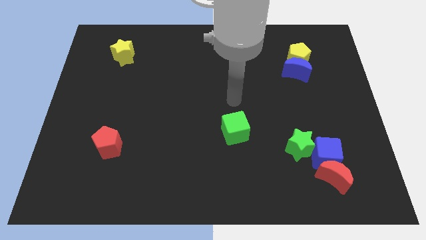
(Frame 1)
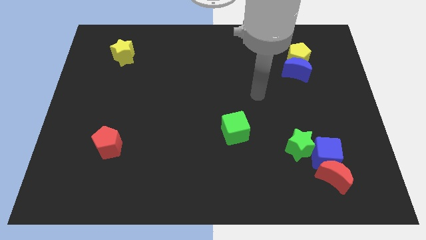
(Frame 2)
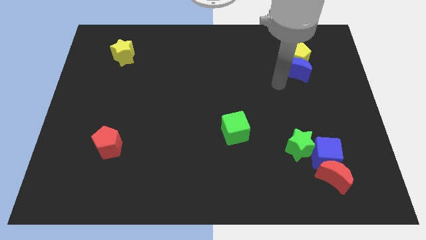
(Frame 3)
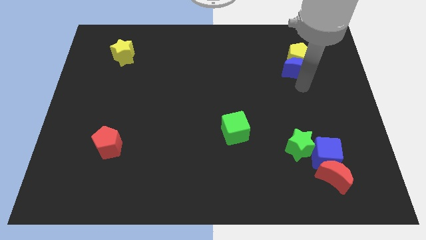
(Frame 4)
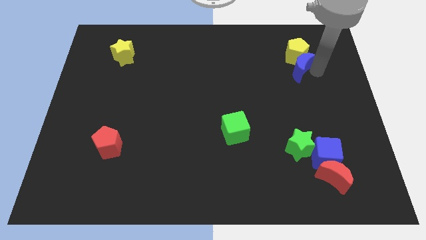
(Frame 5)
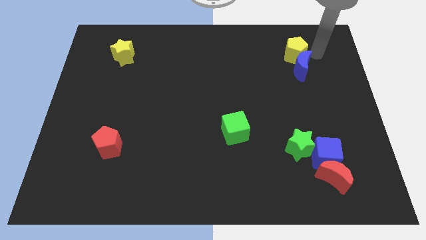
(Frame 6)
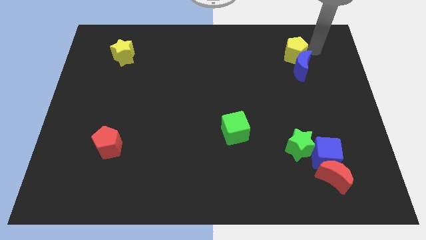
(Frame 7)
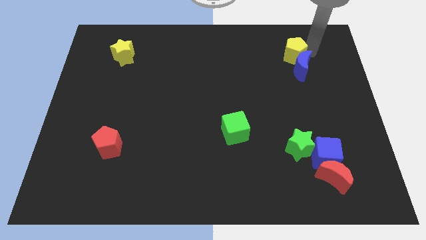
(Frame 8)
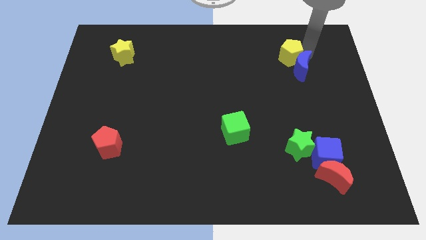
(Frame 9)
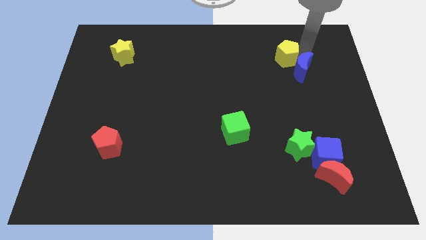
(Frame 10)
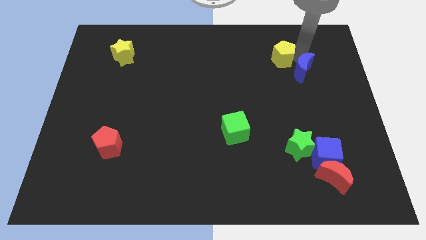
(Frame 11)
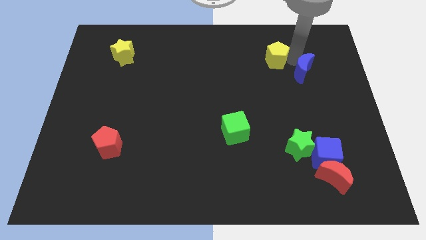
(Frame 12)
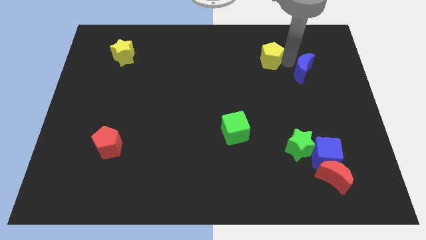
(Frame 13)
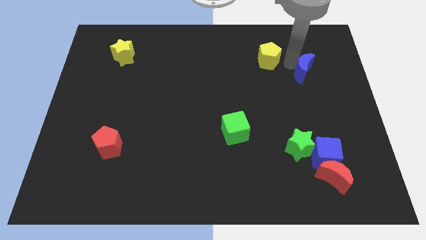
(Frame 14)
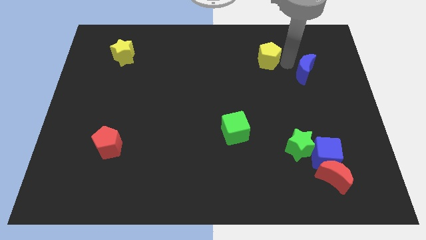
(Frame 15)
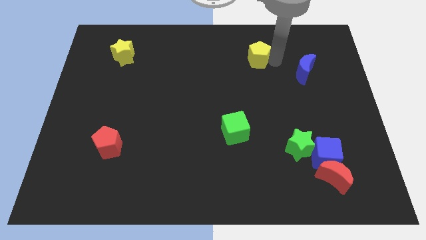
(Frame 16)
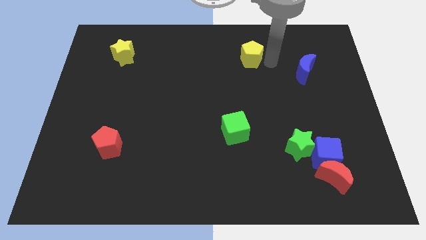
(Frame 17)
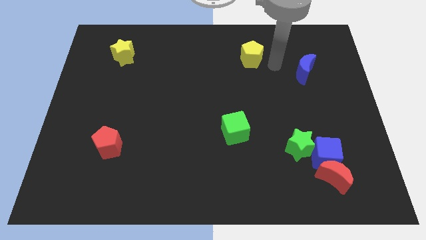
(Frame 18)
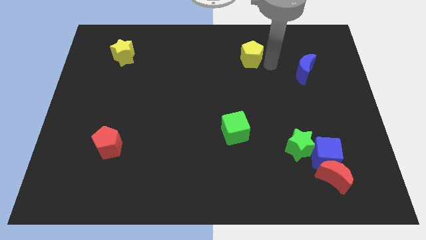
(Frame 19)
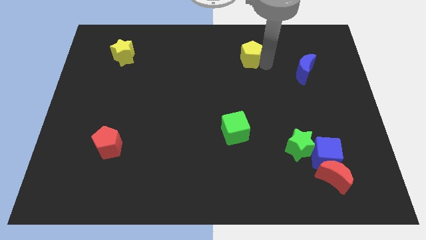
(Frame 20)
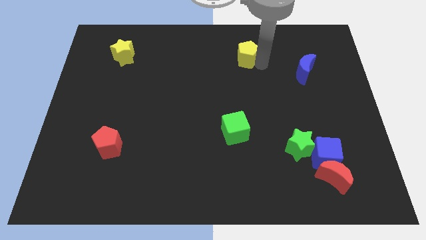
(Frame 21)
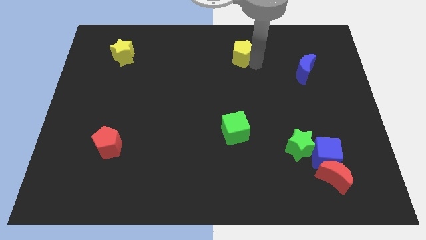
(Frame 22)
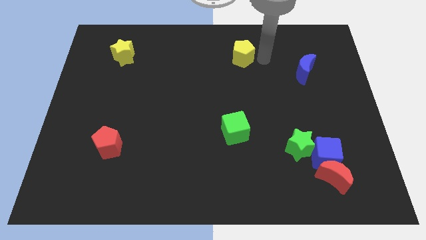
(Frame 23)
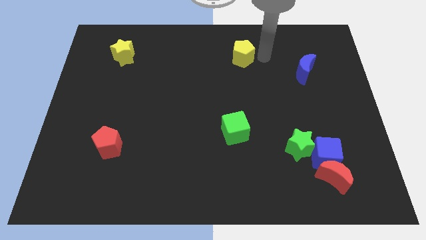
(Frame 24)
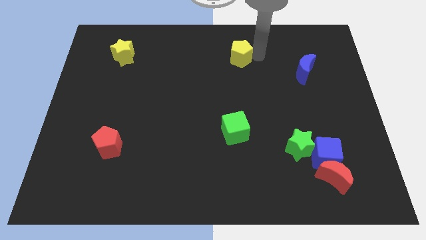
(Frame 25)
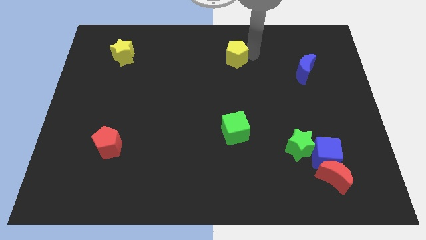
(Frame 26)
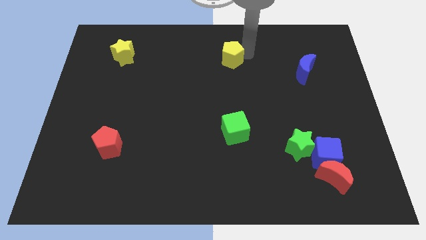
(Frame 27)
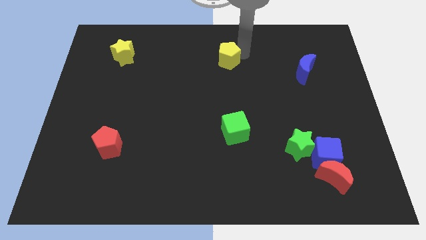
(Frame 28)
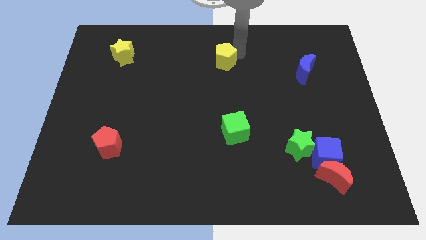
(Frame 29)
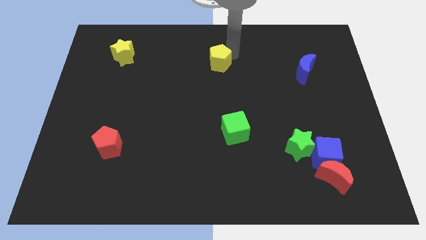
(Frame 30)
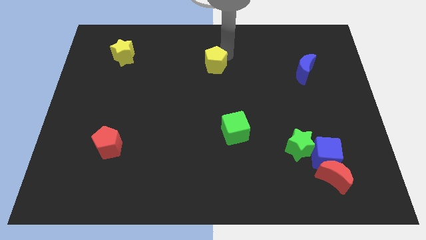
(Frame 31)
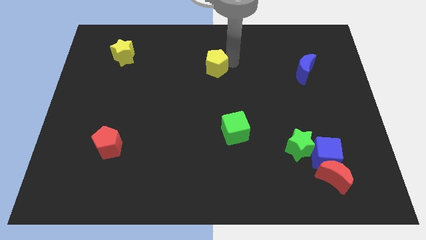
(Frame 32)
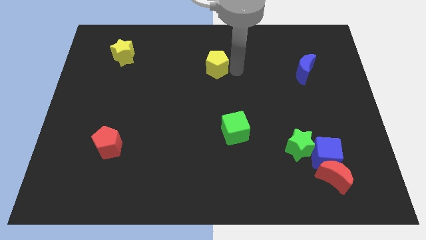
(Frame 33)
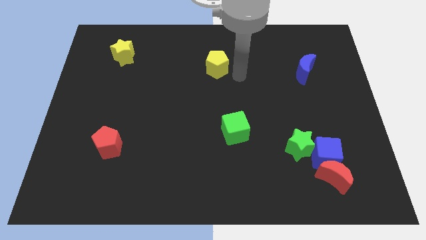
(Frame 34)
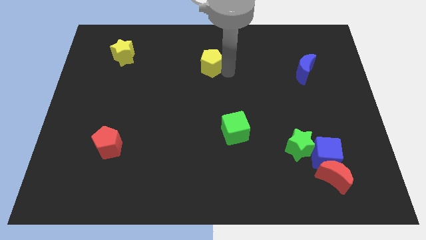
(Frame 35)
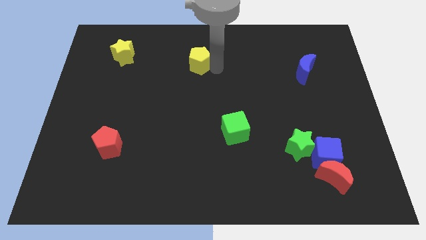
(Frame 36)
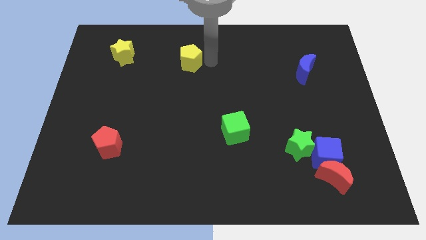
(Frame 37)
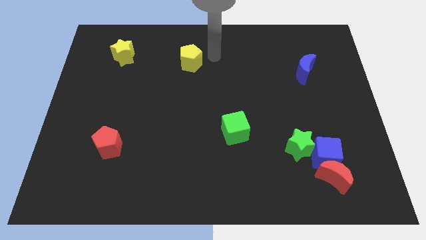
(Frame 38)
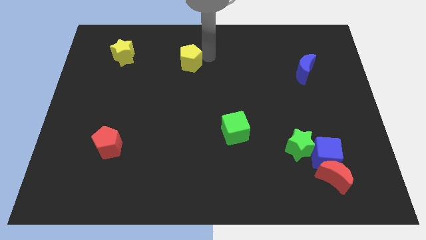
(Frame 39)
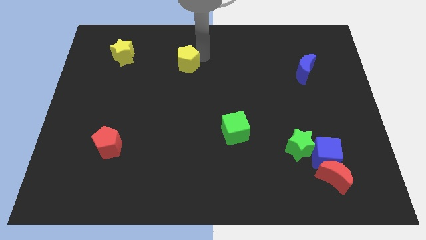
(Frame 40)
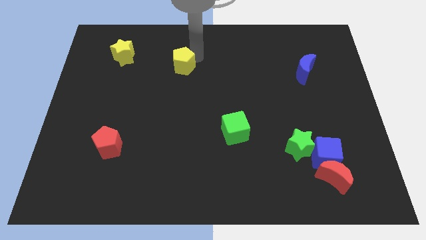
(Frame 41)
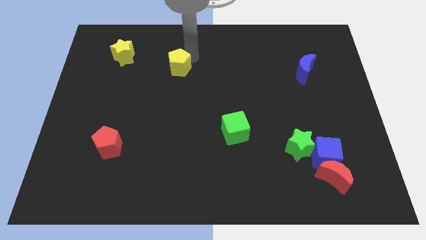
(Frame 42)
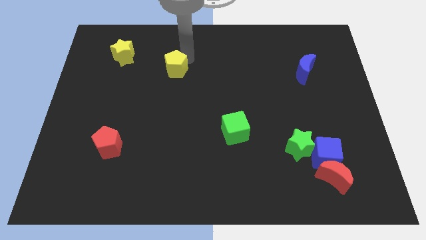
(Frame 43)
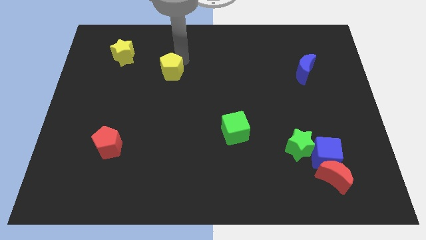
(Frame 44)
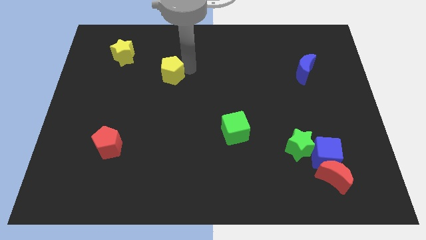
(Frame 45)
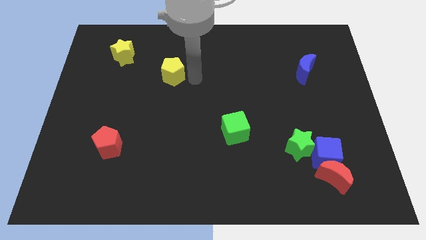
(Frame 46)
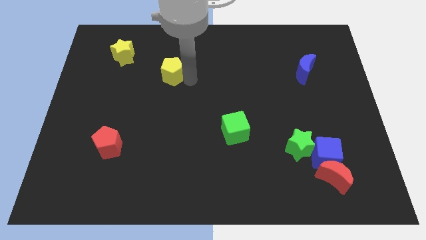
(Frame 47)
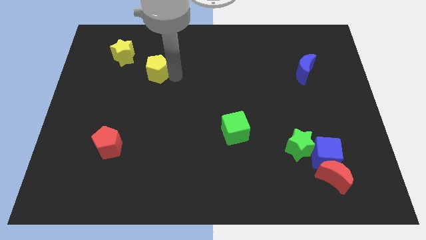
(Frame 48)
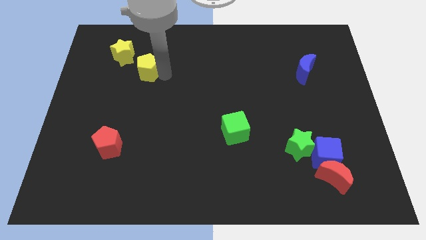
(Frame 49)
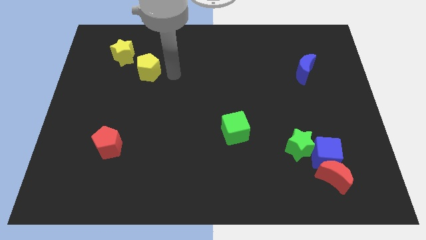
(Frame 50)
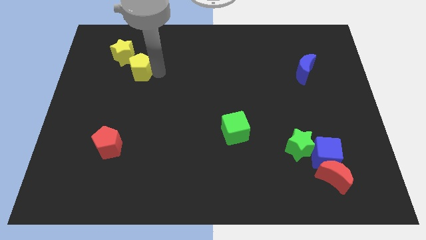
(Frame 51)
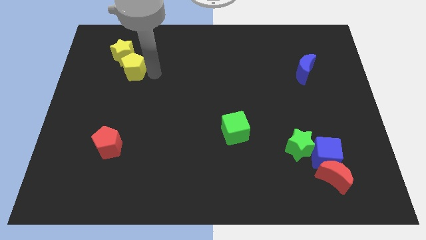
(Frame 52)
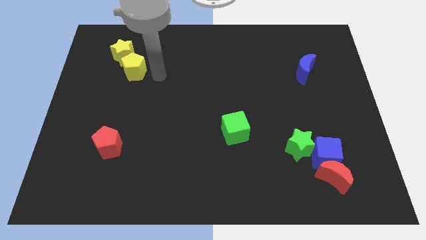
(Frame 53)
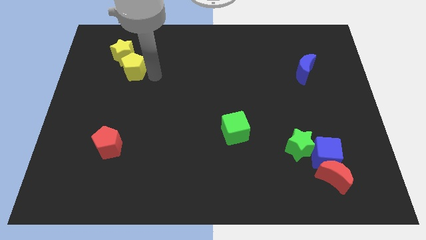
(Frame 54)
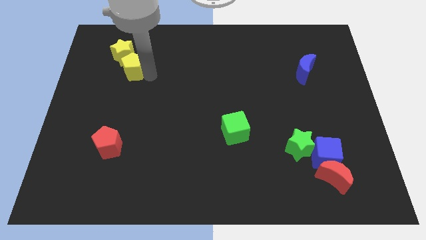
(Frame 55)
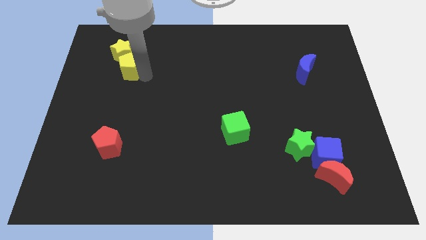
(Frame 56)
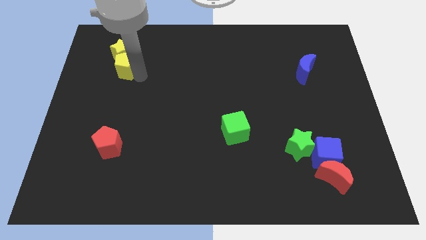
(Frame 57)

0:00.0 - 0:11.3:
push the yellow pentagon diagonally down and to the left of the yellow star

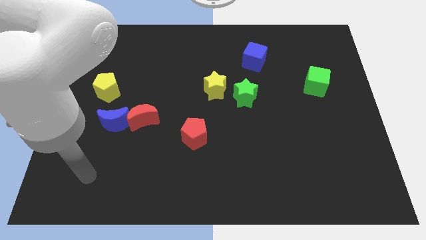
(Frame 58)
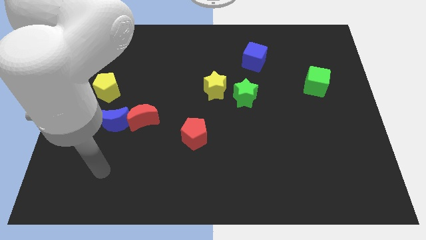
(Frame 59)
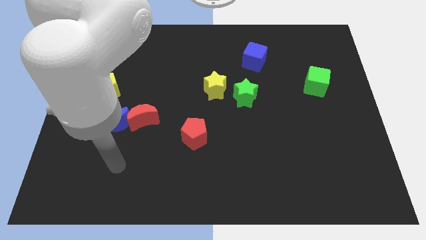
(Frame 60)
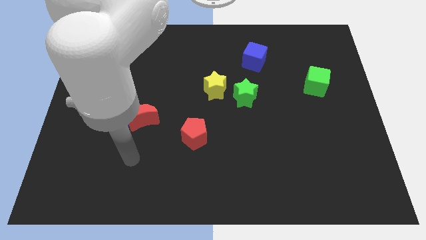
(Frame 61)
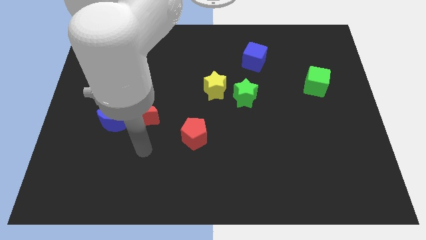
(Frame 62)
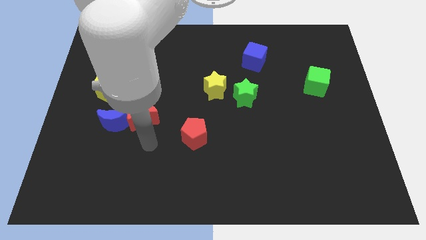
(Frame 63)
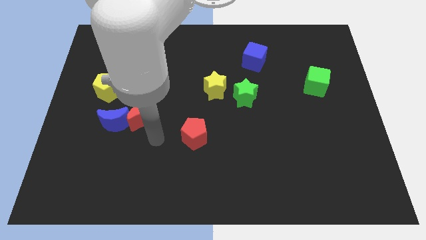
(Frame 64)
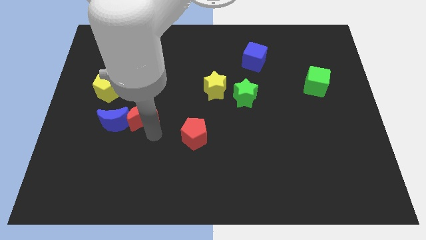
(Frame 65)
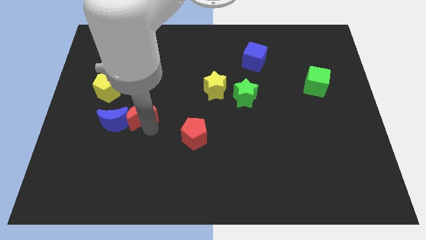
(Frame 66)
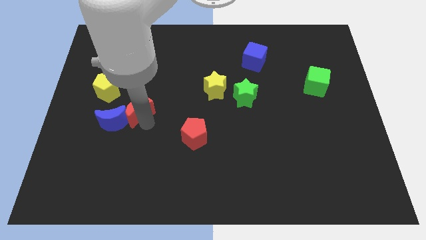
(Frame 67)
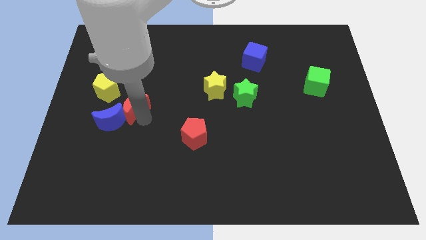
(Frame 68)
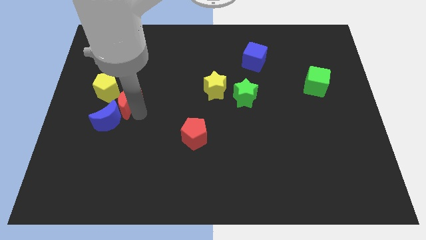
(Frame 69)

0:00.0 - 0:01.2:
push the red moon to the top of the blue moon

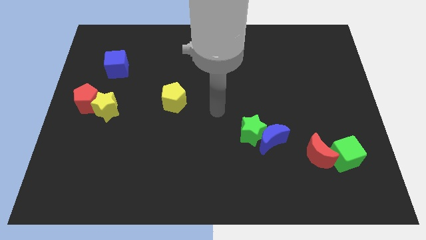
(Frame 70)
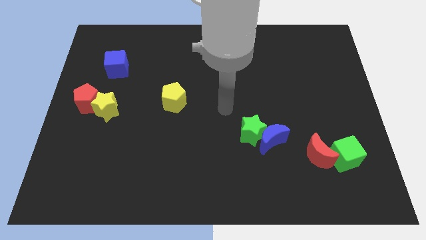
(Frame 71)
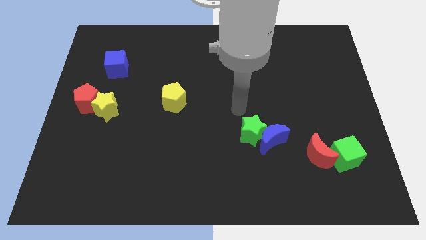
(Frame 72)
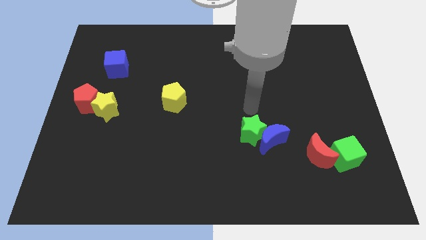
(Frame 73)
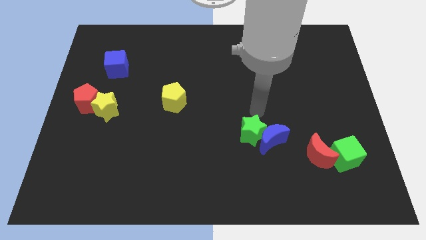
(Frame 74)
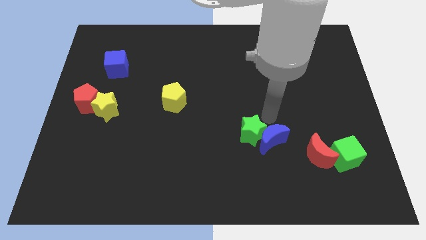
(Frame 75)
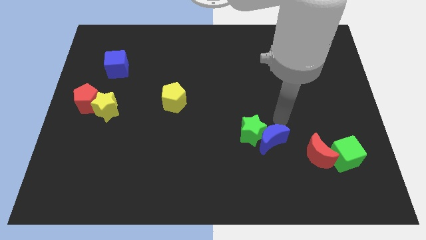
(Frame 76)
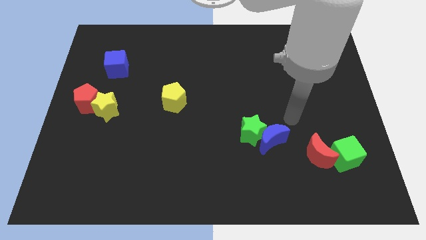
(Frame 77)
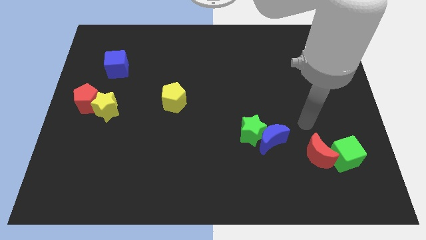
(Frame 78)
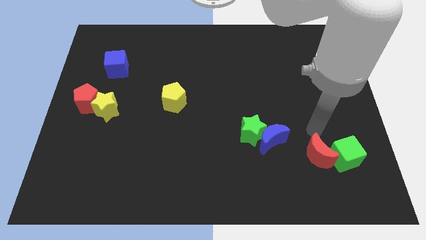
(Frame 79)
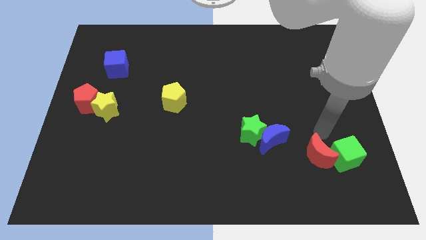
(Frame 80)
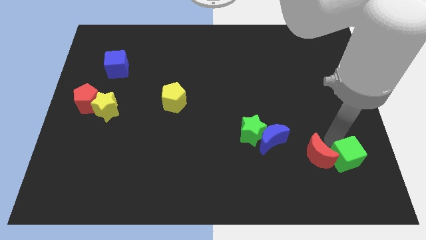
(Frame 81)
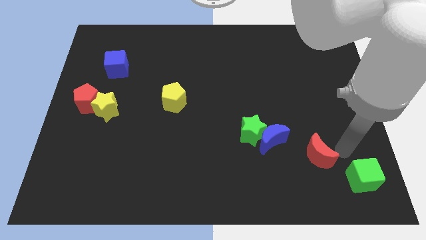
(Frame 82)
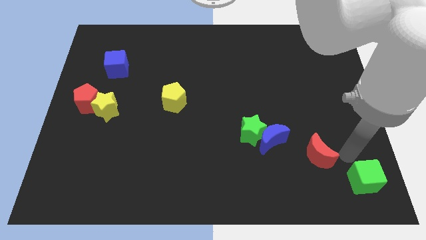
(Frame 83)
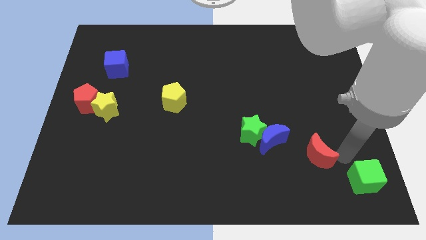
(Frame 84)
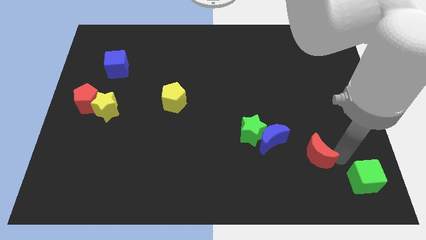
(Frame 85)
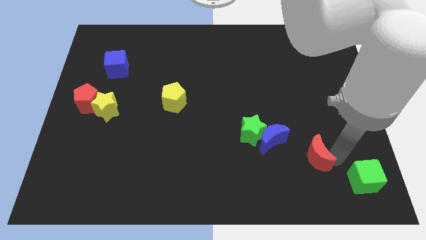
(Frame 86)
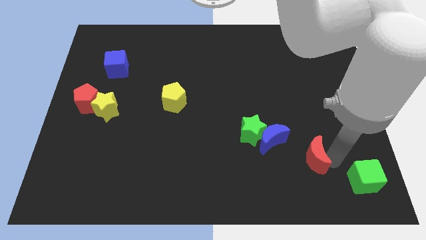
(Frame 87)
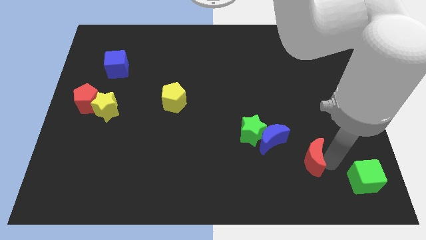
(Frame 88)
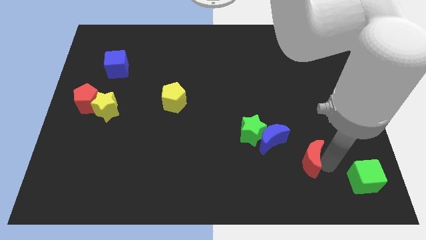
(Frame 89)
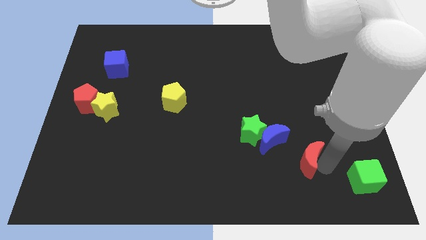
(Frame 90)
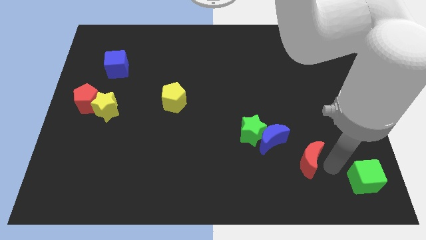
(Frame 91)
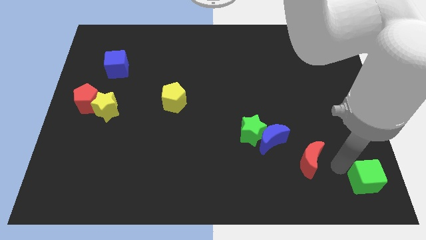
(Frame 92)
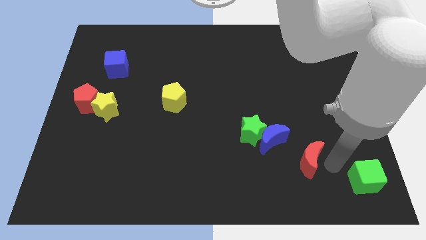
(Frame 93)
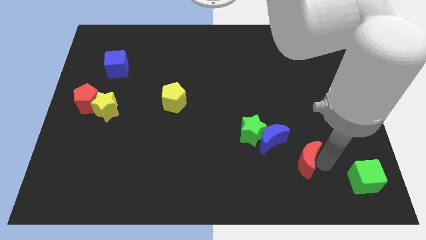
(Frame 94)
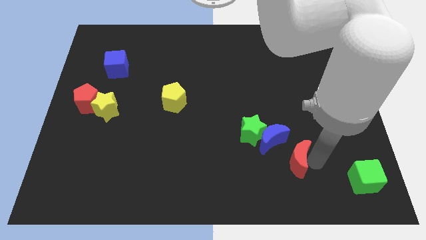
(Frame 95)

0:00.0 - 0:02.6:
move the red moon to the bottom right of the green star
